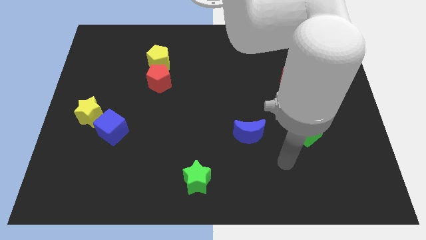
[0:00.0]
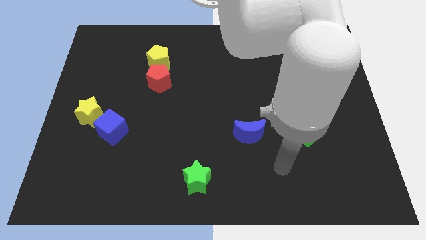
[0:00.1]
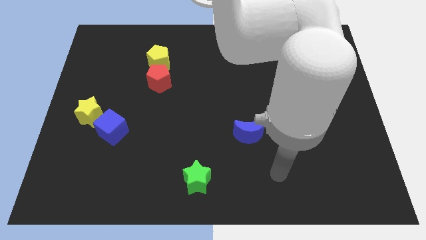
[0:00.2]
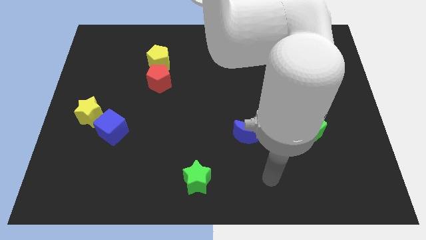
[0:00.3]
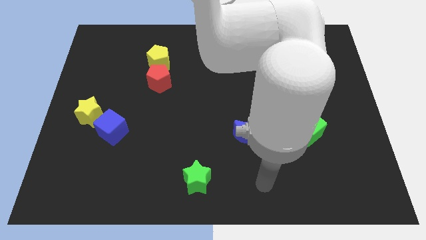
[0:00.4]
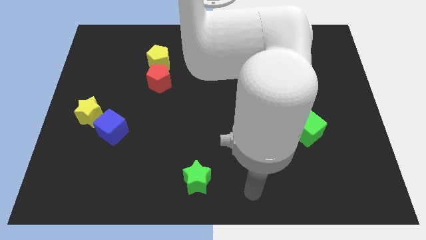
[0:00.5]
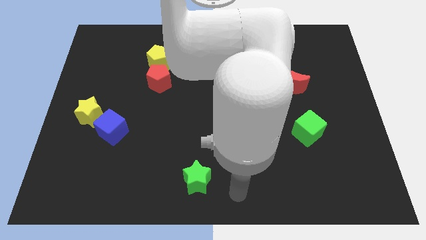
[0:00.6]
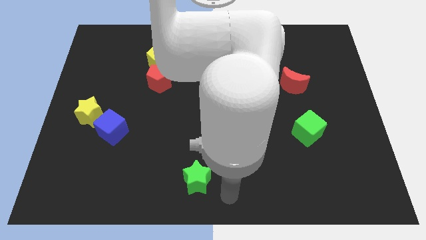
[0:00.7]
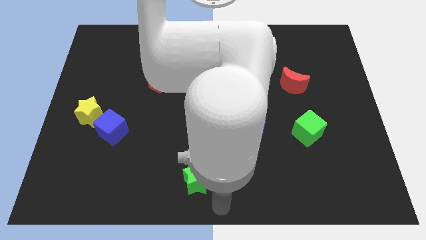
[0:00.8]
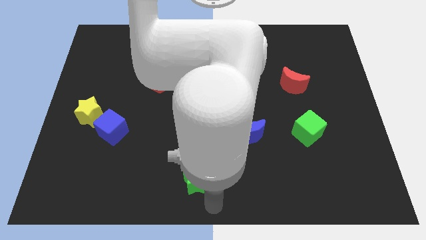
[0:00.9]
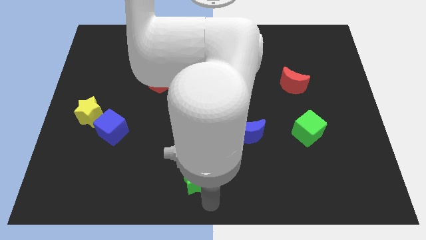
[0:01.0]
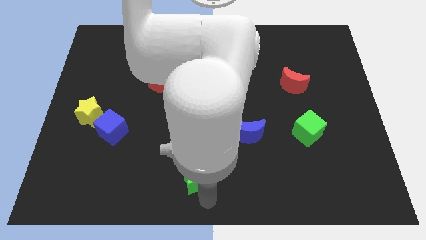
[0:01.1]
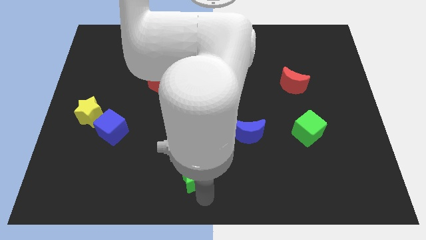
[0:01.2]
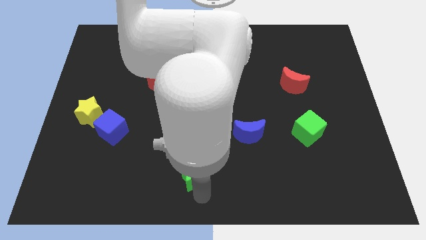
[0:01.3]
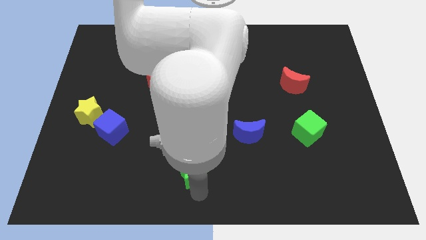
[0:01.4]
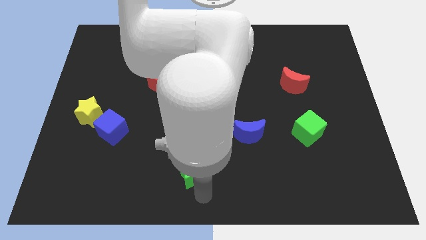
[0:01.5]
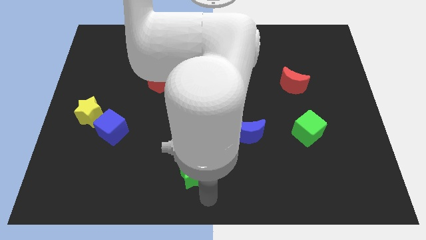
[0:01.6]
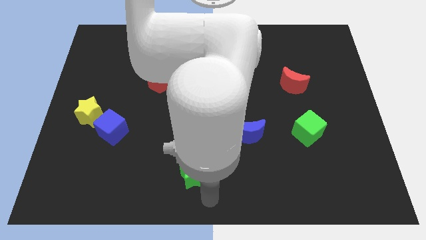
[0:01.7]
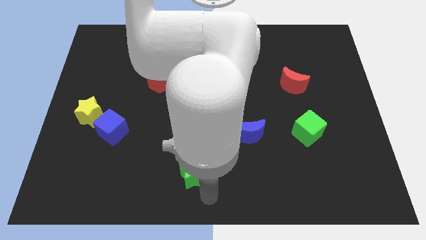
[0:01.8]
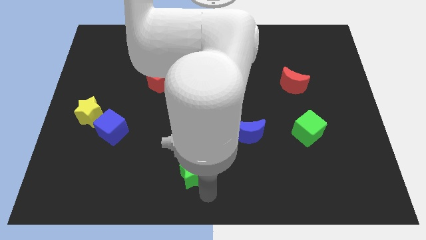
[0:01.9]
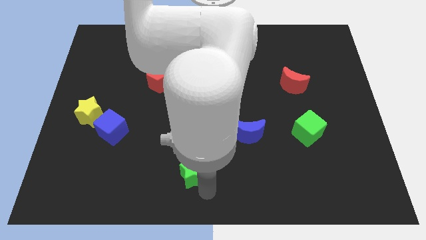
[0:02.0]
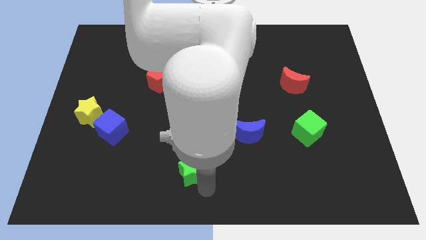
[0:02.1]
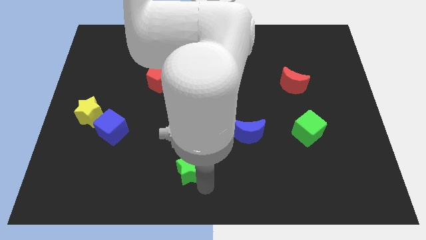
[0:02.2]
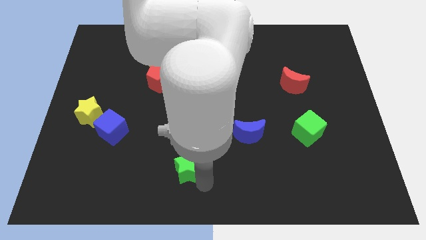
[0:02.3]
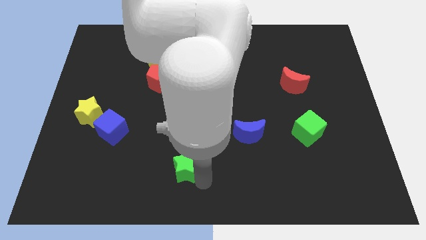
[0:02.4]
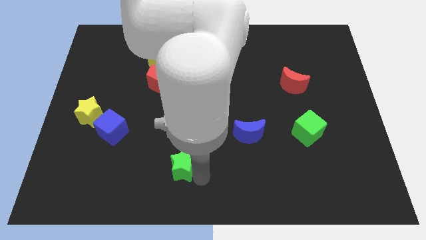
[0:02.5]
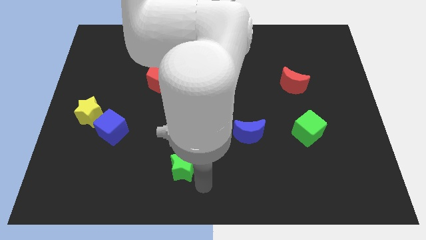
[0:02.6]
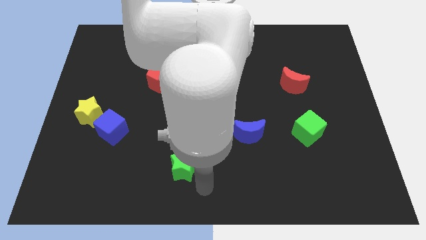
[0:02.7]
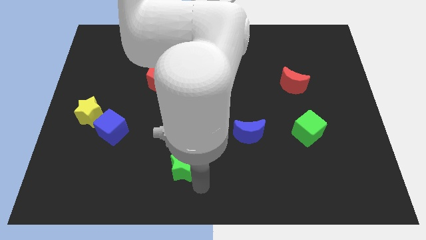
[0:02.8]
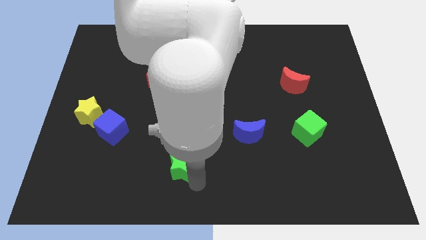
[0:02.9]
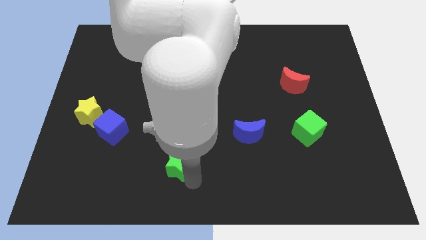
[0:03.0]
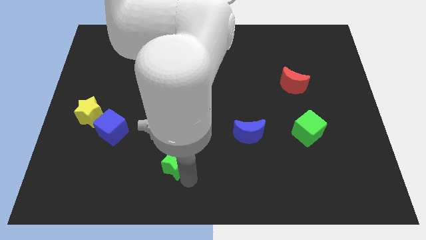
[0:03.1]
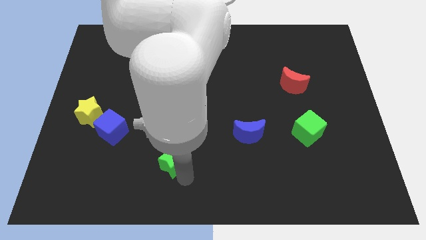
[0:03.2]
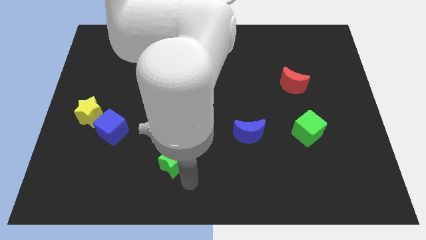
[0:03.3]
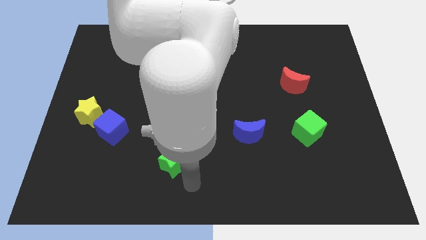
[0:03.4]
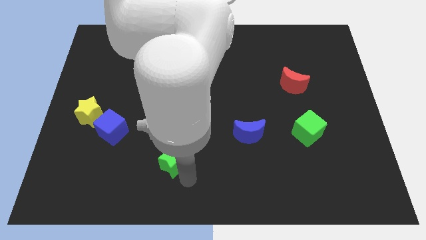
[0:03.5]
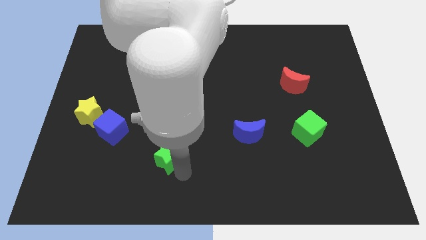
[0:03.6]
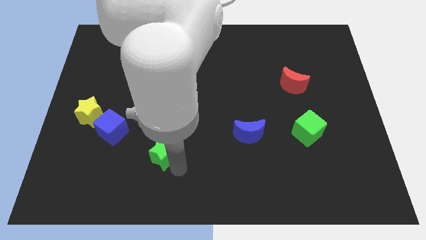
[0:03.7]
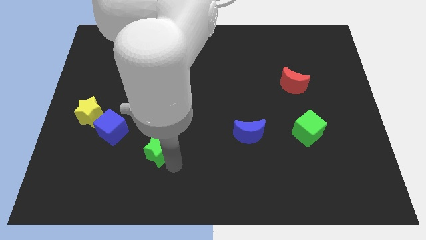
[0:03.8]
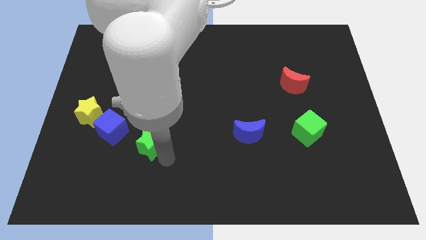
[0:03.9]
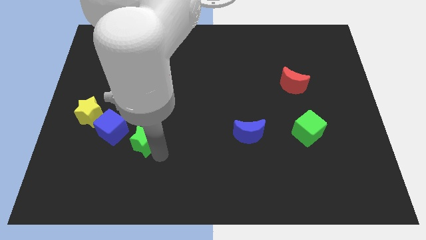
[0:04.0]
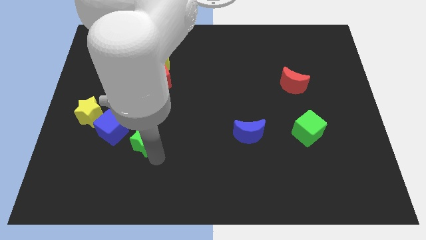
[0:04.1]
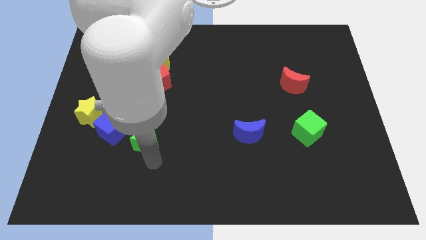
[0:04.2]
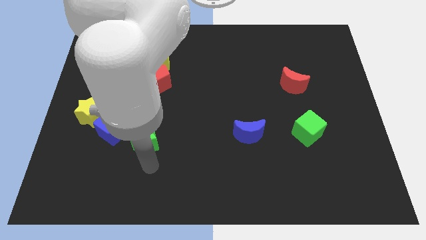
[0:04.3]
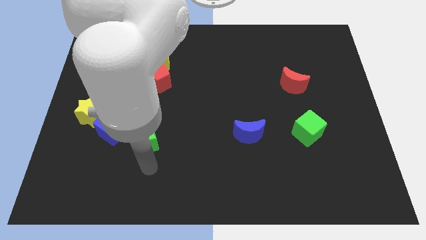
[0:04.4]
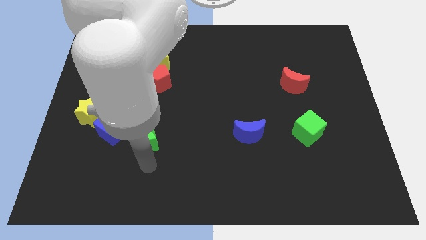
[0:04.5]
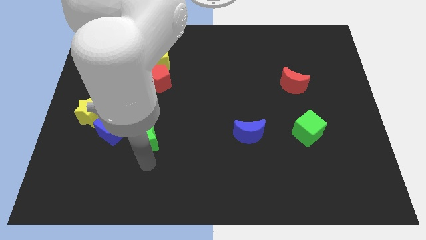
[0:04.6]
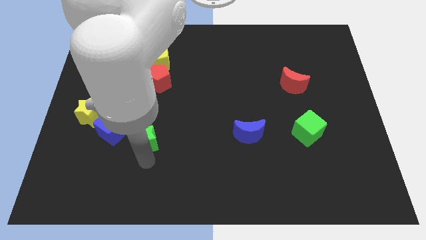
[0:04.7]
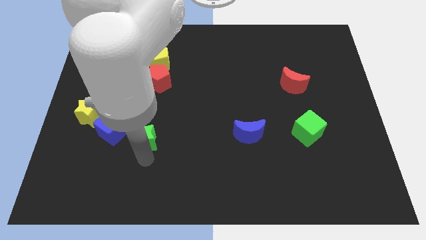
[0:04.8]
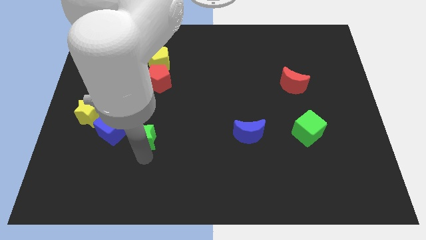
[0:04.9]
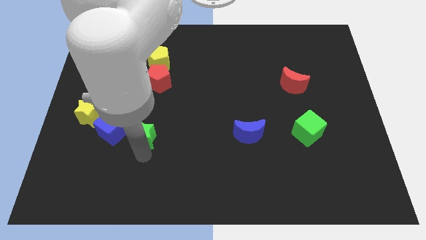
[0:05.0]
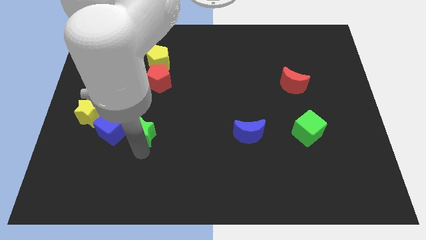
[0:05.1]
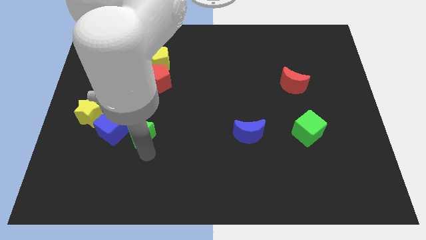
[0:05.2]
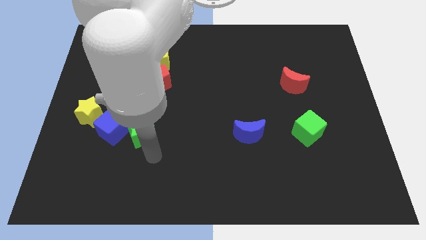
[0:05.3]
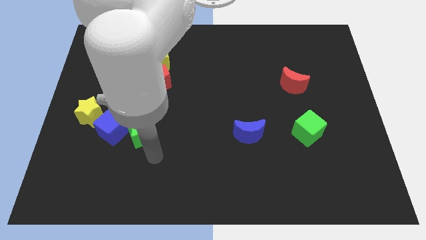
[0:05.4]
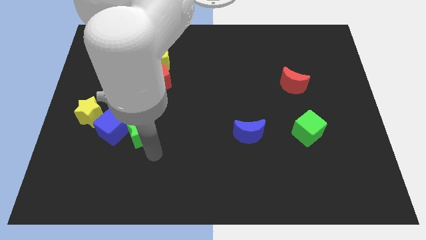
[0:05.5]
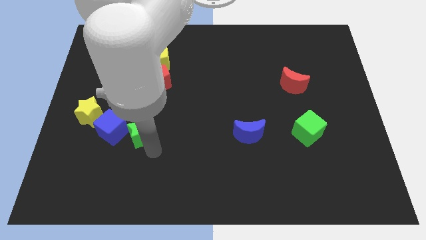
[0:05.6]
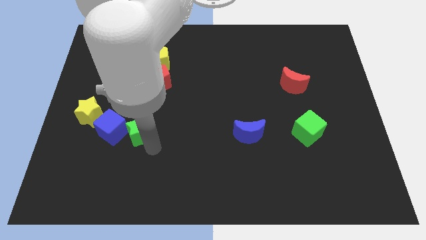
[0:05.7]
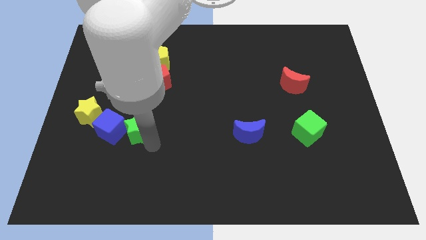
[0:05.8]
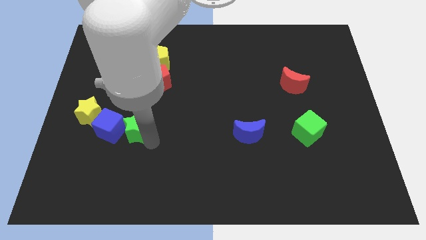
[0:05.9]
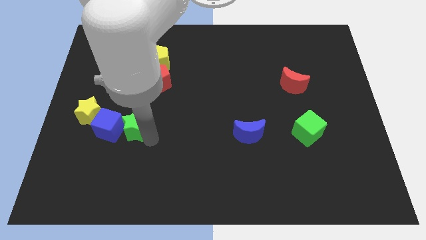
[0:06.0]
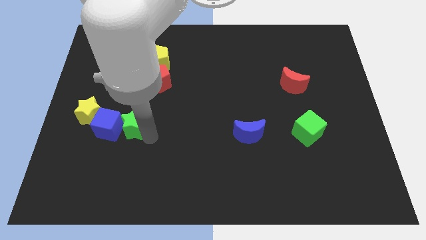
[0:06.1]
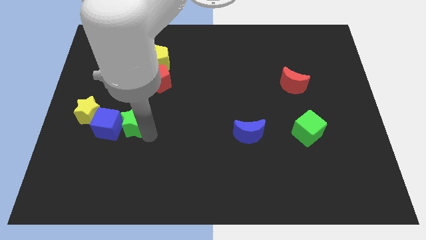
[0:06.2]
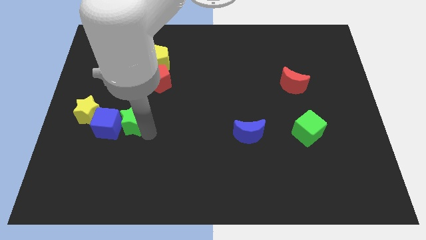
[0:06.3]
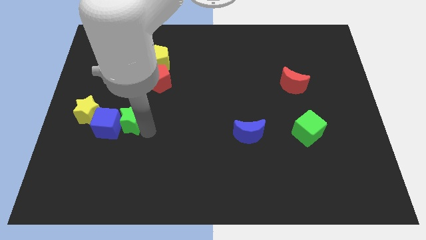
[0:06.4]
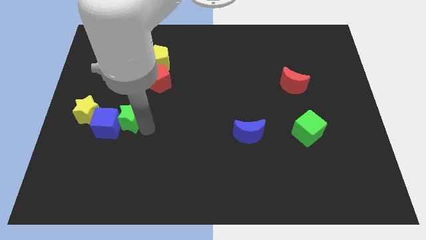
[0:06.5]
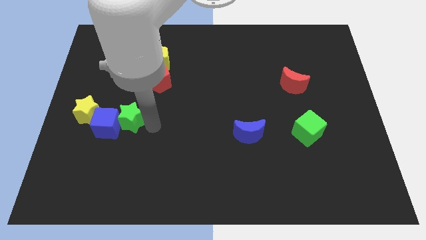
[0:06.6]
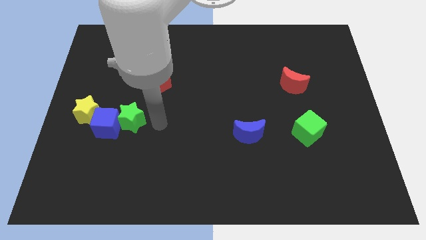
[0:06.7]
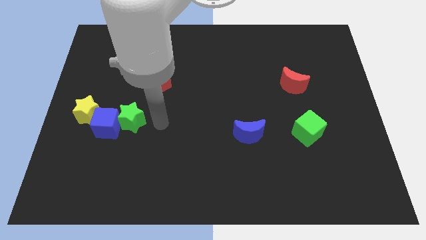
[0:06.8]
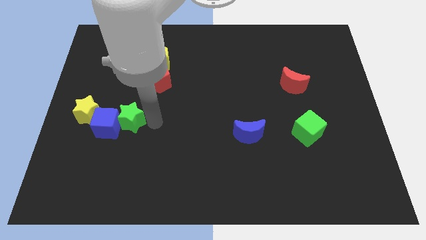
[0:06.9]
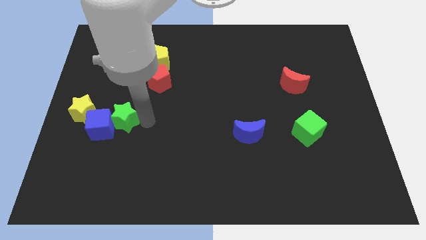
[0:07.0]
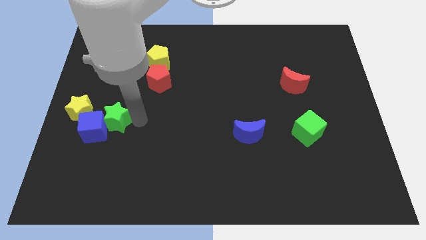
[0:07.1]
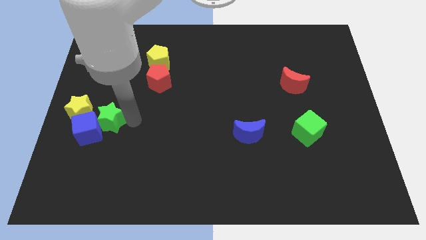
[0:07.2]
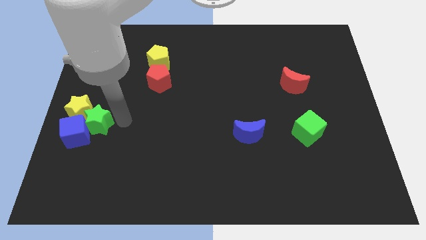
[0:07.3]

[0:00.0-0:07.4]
move the green star towards the yellow star
